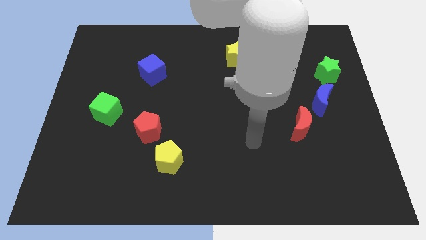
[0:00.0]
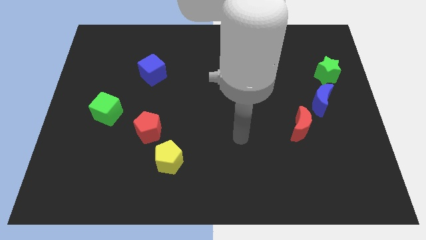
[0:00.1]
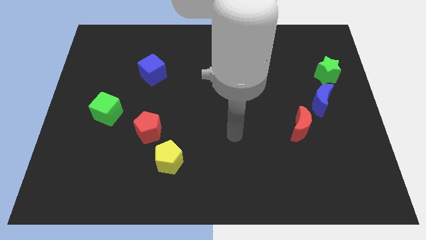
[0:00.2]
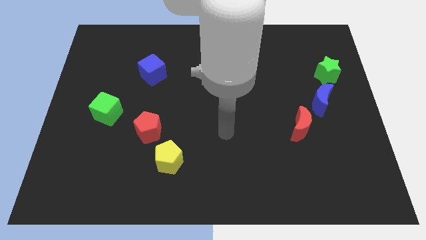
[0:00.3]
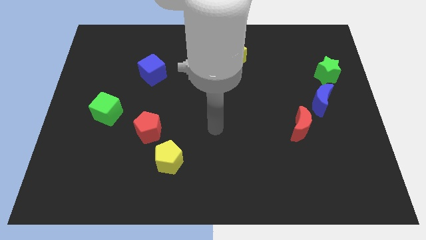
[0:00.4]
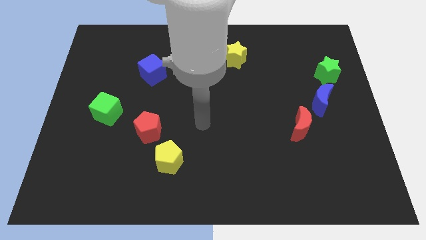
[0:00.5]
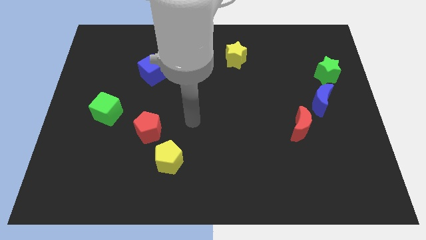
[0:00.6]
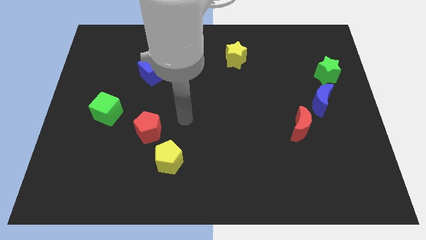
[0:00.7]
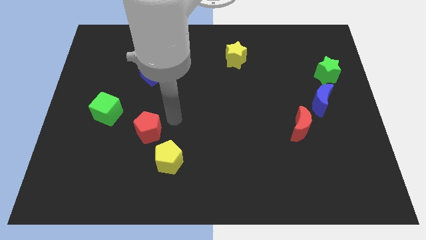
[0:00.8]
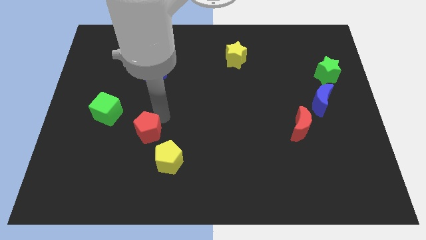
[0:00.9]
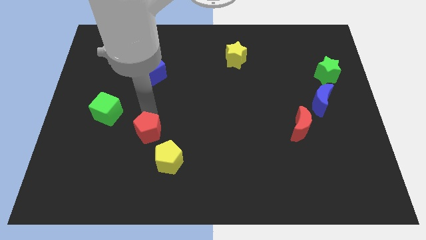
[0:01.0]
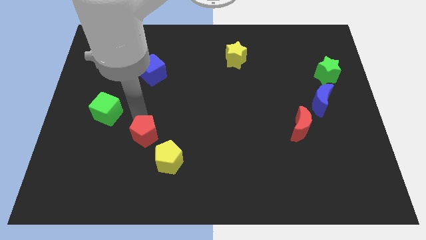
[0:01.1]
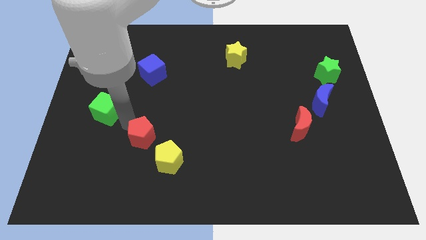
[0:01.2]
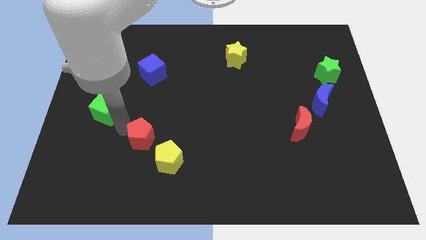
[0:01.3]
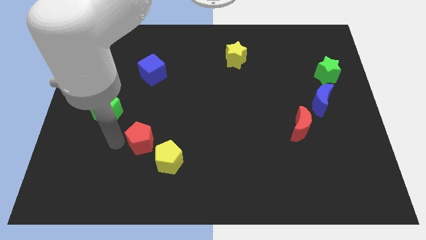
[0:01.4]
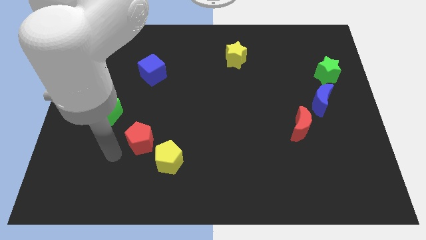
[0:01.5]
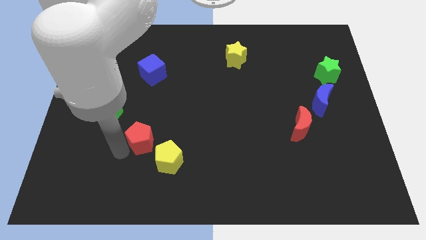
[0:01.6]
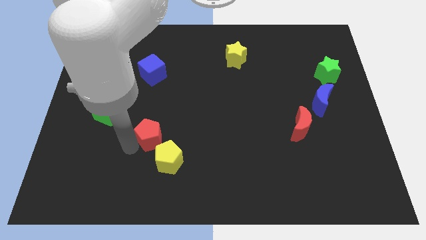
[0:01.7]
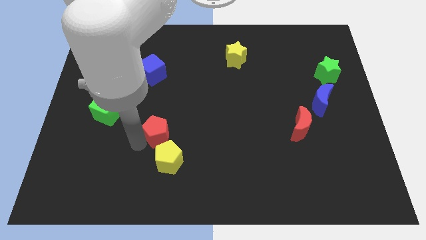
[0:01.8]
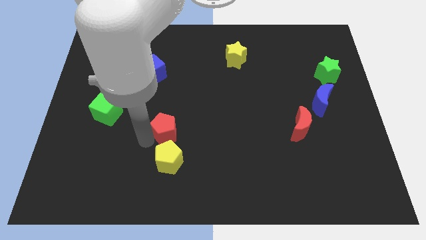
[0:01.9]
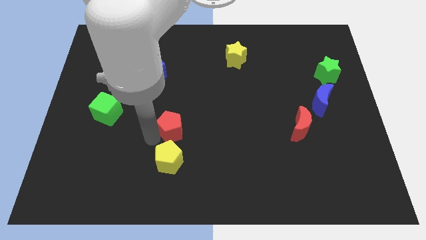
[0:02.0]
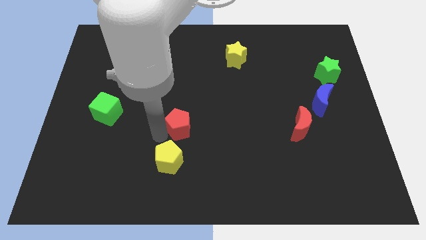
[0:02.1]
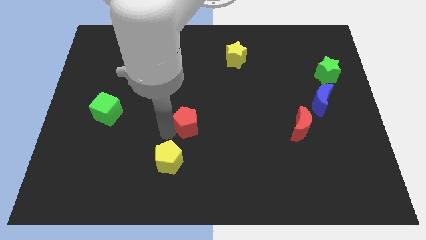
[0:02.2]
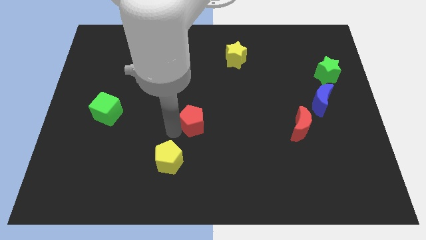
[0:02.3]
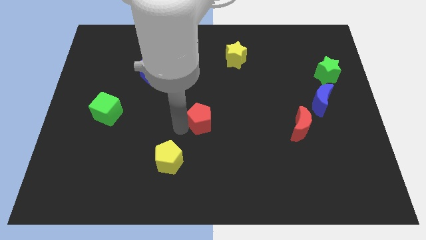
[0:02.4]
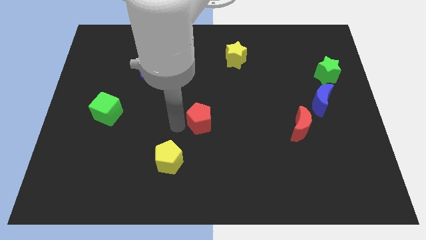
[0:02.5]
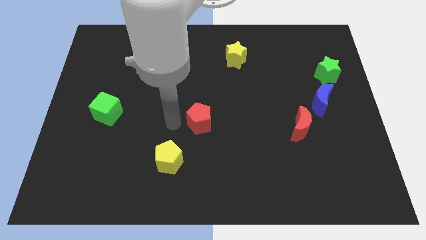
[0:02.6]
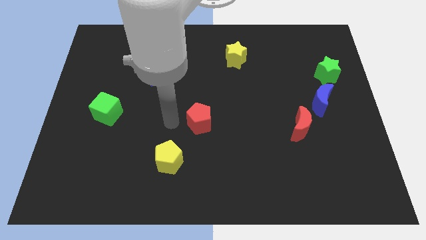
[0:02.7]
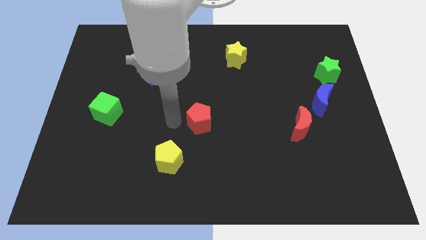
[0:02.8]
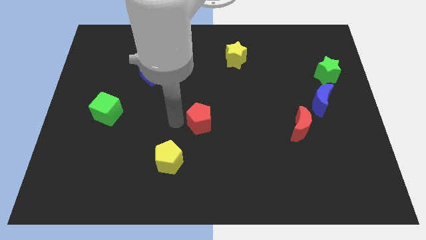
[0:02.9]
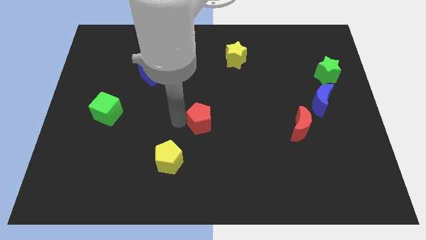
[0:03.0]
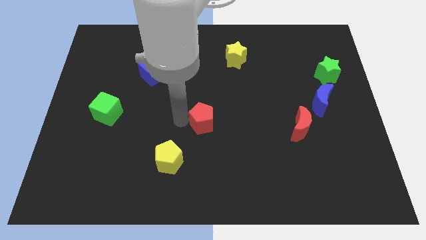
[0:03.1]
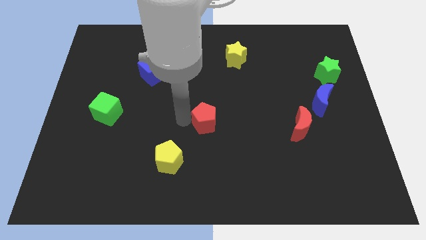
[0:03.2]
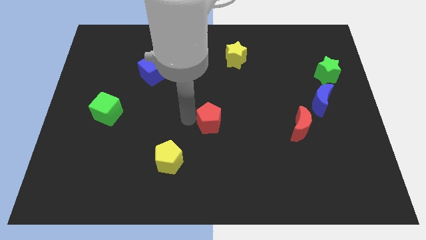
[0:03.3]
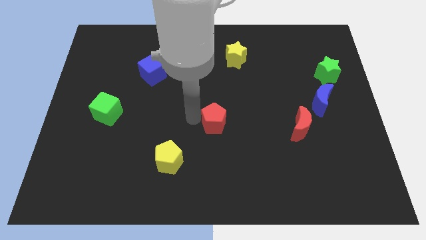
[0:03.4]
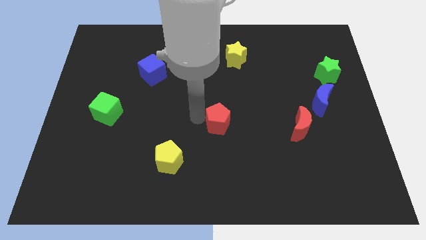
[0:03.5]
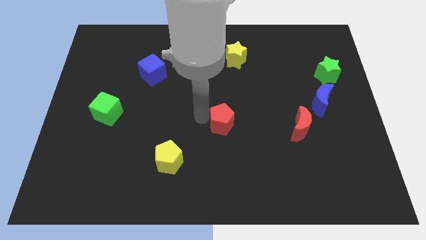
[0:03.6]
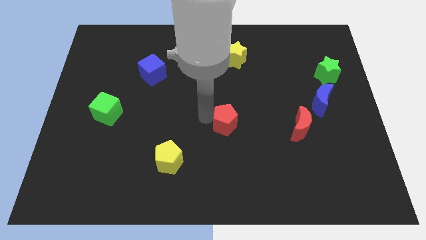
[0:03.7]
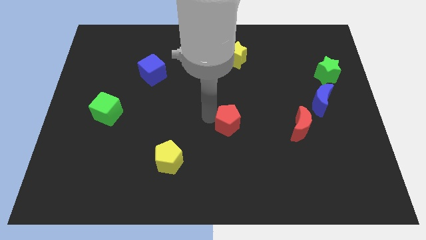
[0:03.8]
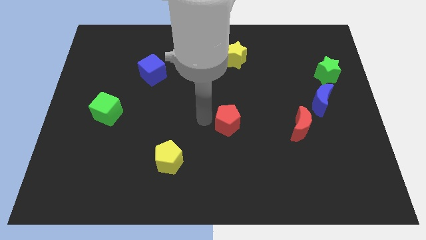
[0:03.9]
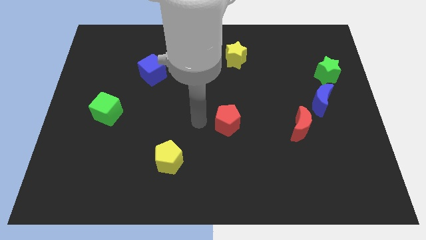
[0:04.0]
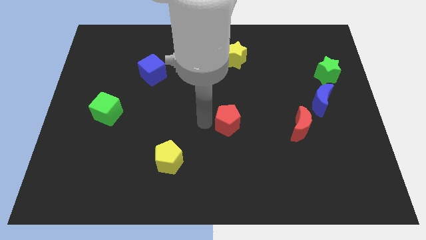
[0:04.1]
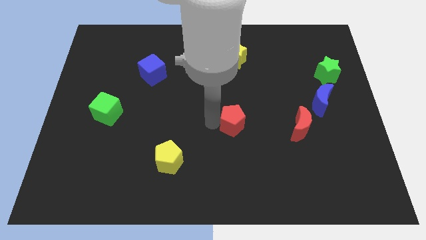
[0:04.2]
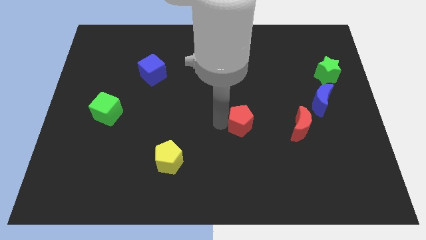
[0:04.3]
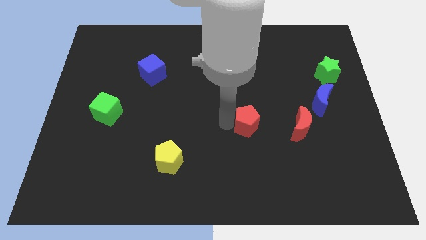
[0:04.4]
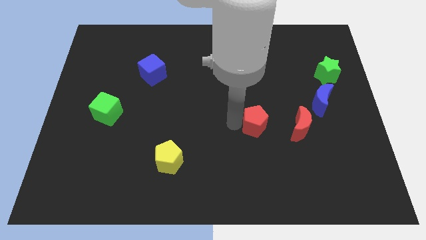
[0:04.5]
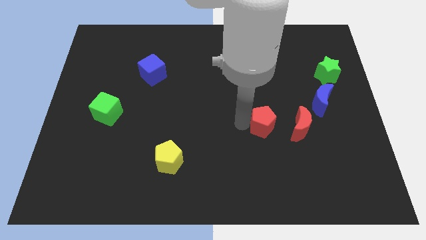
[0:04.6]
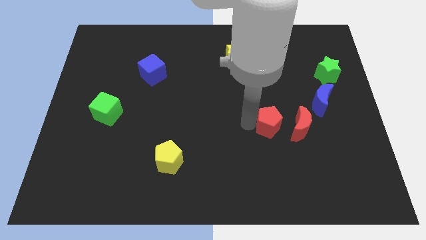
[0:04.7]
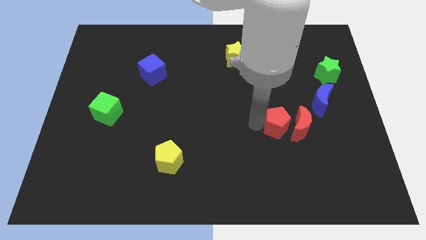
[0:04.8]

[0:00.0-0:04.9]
move the red pentagon next to the red moon

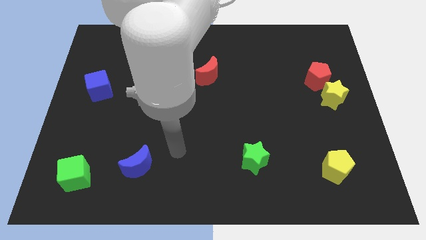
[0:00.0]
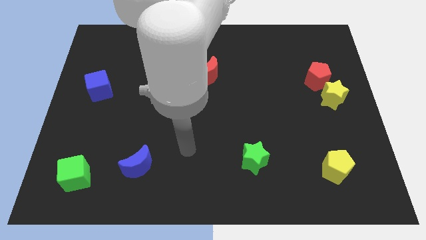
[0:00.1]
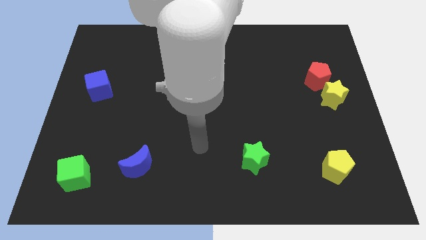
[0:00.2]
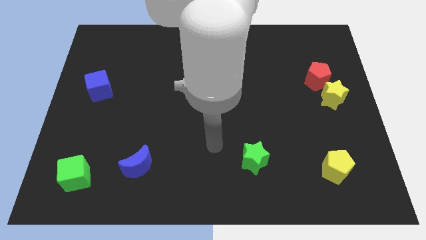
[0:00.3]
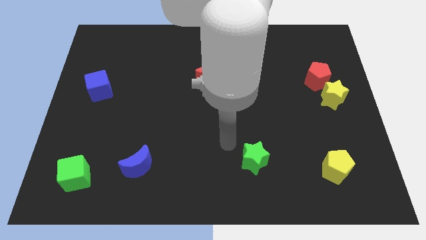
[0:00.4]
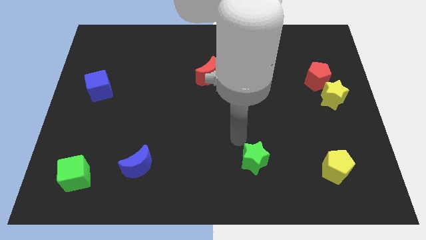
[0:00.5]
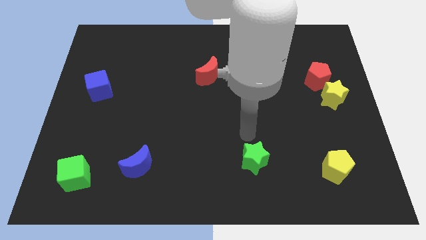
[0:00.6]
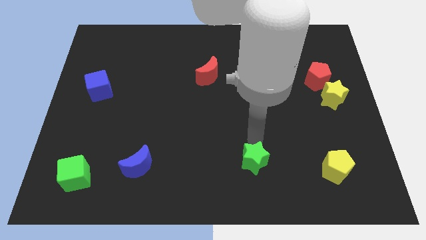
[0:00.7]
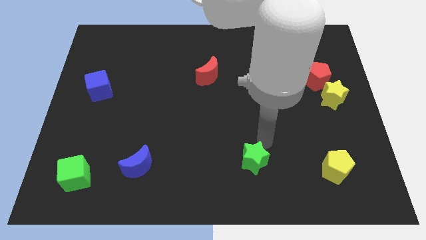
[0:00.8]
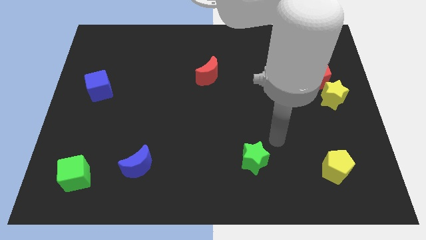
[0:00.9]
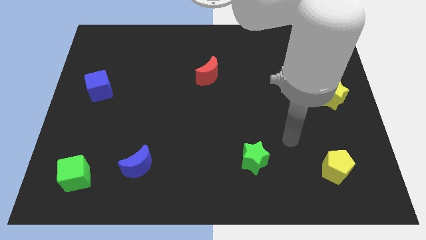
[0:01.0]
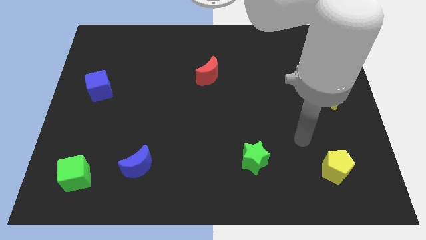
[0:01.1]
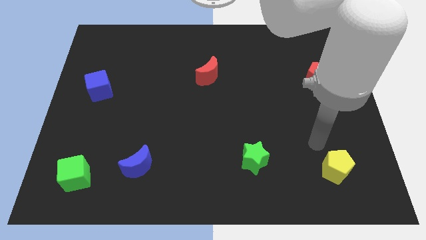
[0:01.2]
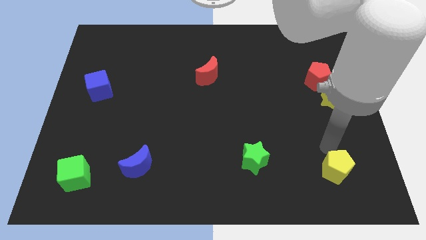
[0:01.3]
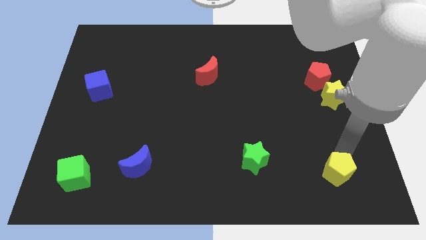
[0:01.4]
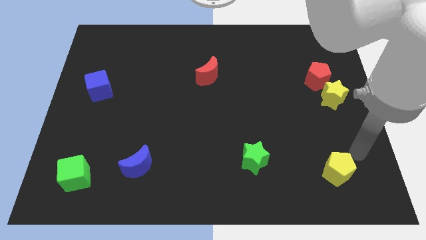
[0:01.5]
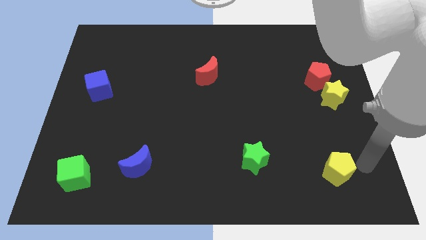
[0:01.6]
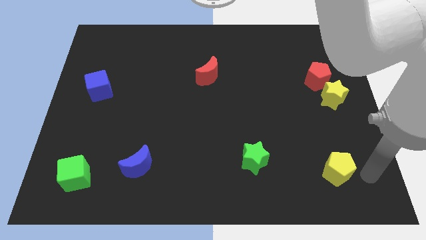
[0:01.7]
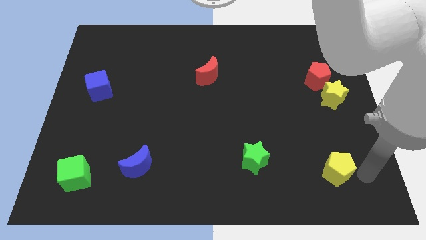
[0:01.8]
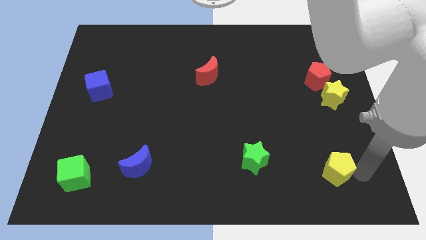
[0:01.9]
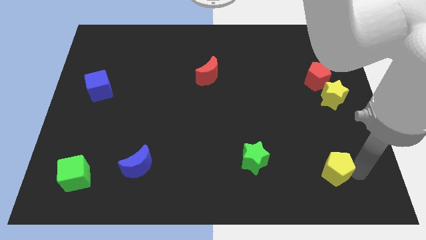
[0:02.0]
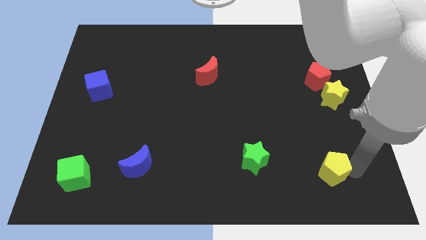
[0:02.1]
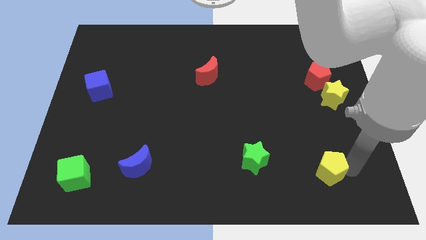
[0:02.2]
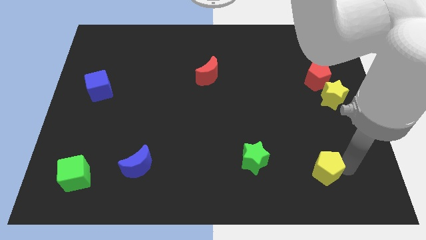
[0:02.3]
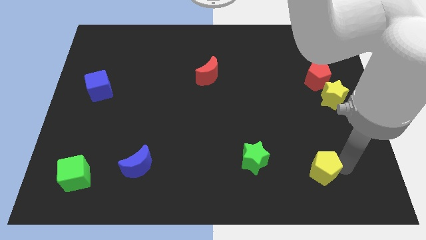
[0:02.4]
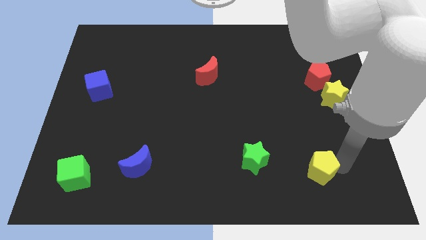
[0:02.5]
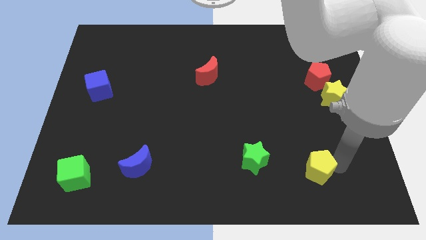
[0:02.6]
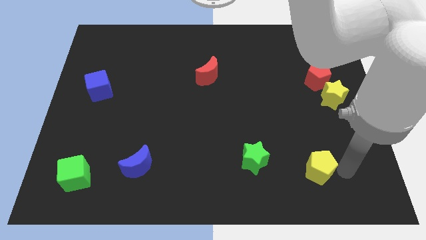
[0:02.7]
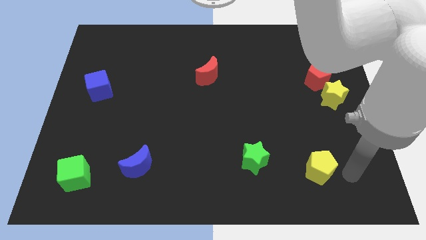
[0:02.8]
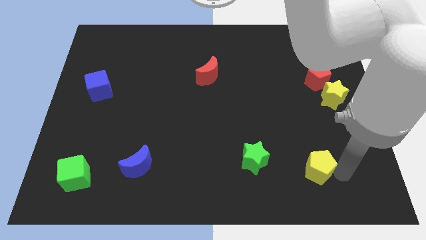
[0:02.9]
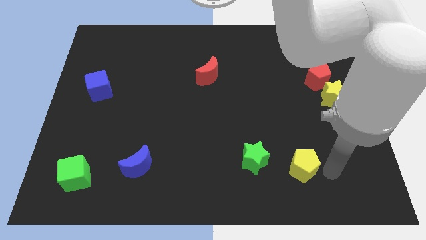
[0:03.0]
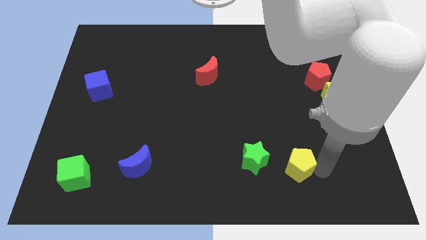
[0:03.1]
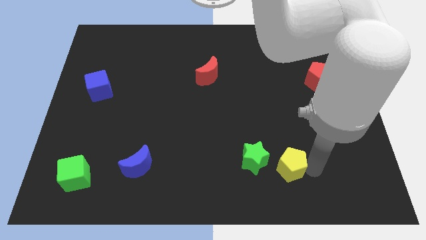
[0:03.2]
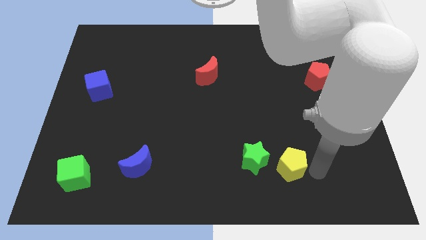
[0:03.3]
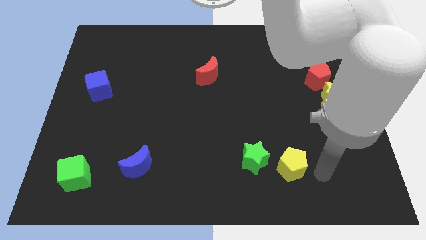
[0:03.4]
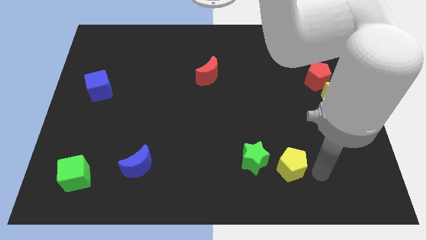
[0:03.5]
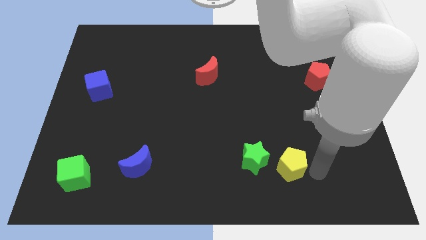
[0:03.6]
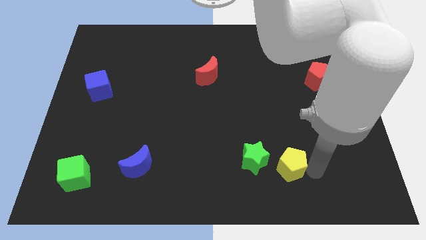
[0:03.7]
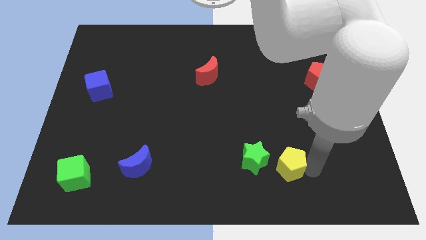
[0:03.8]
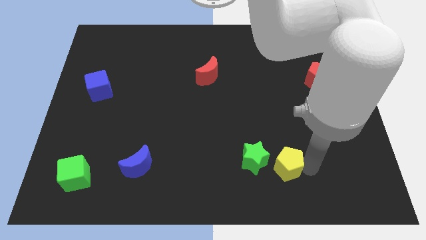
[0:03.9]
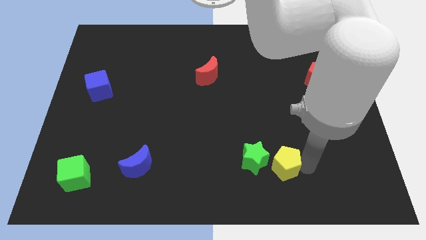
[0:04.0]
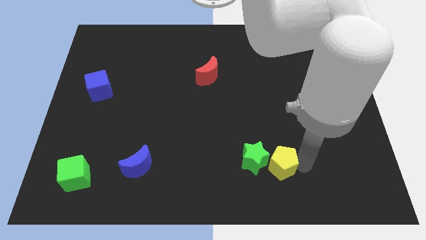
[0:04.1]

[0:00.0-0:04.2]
move the yellow pentagon next to the green star
